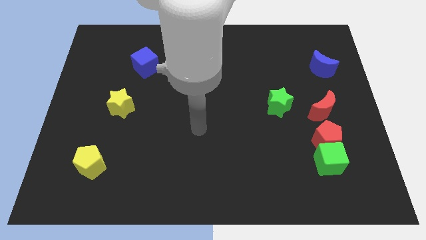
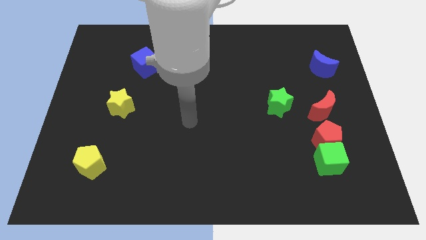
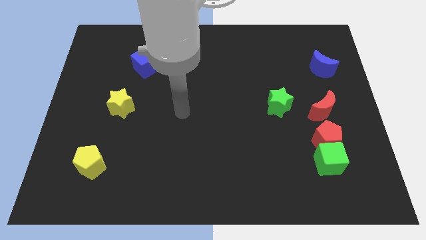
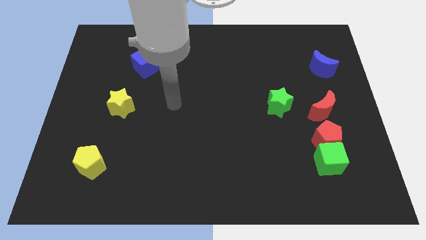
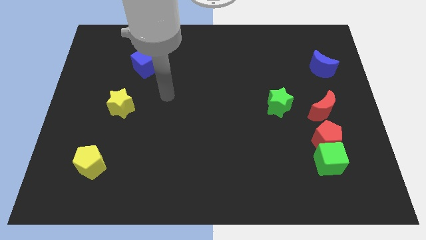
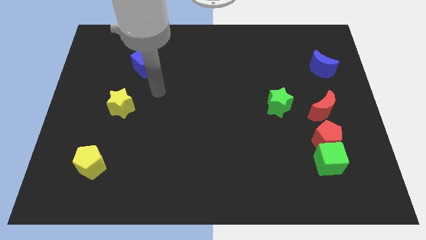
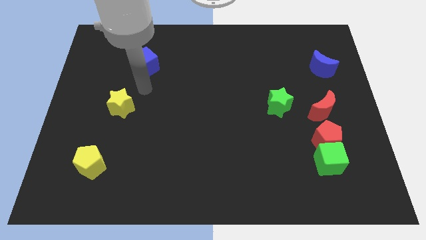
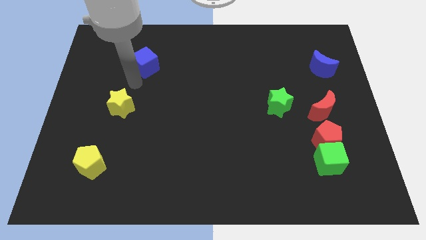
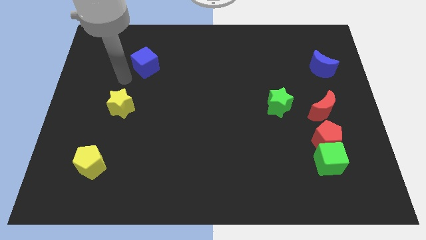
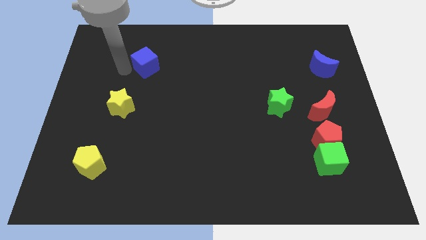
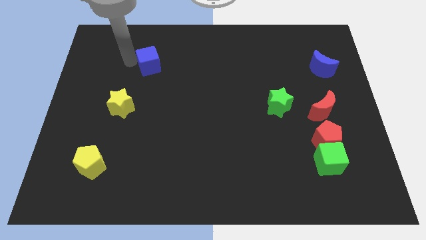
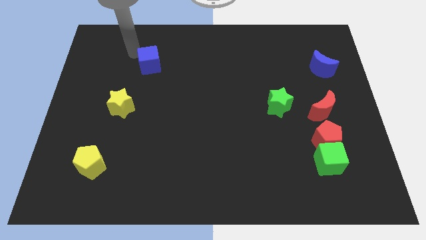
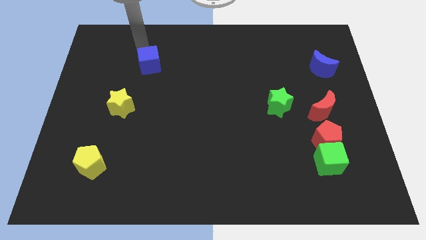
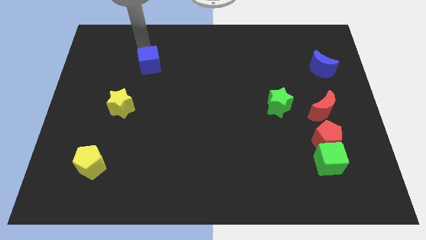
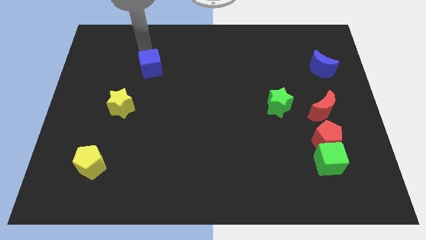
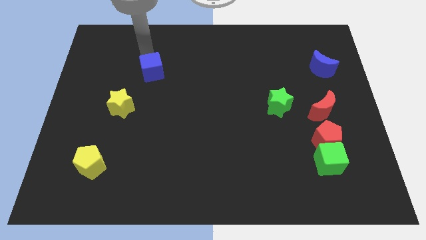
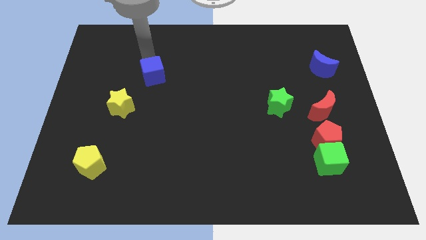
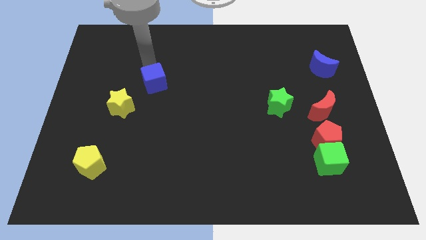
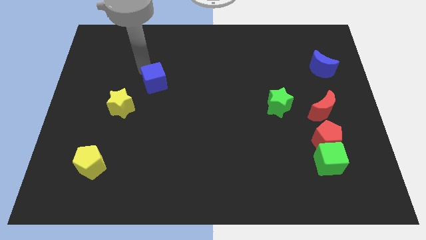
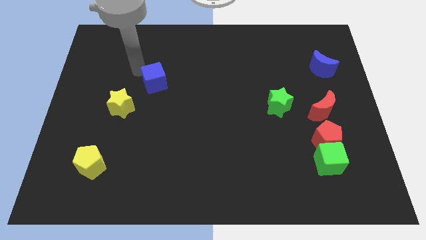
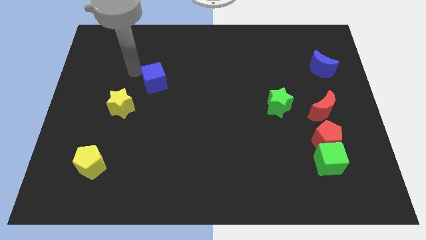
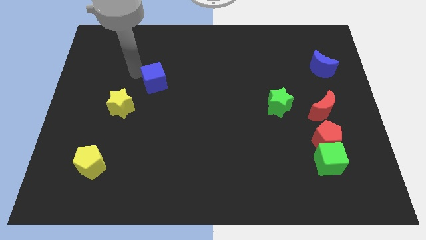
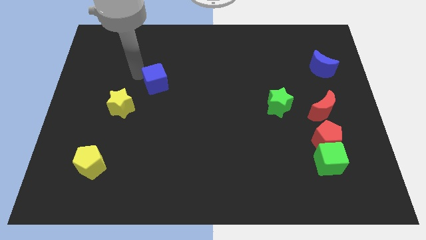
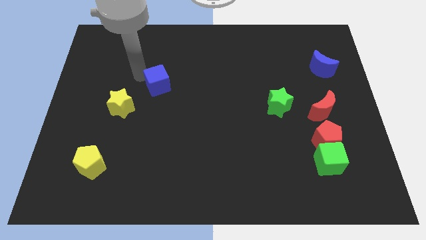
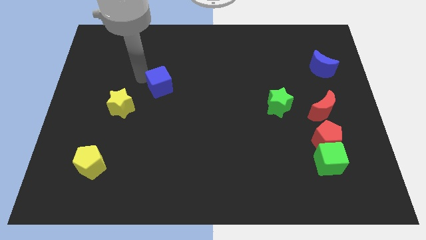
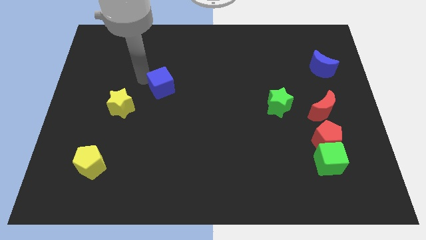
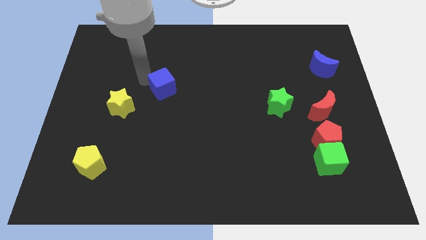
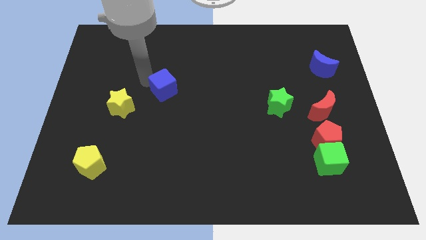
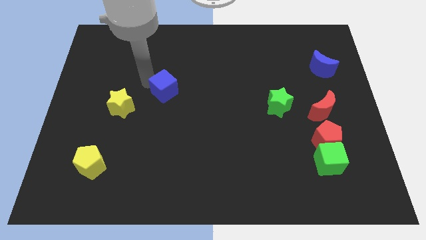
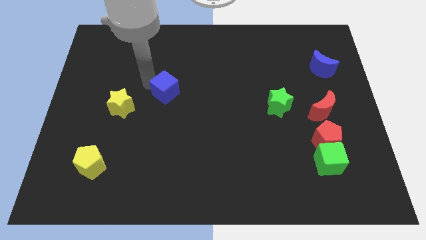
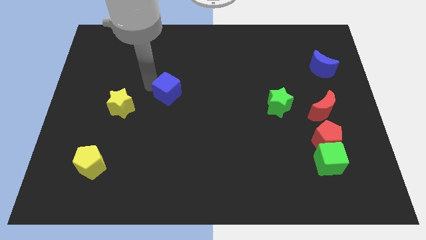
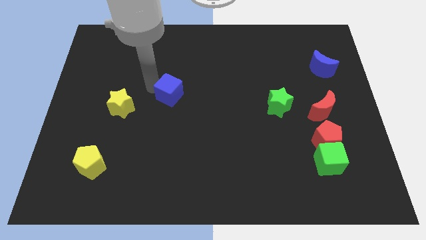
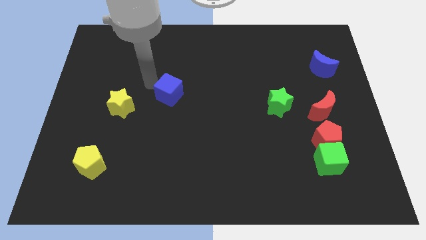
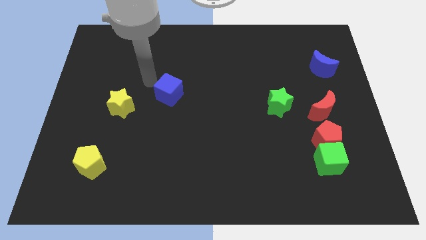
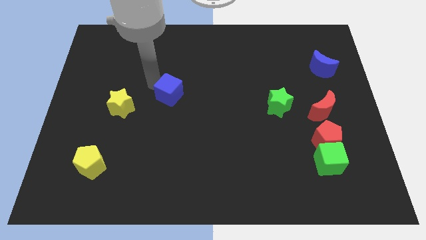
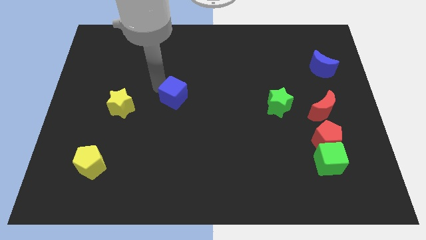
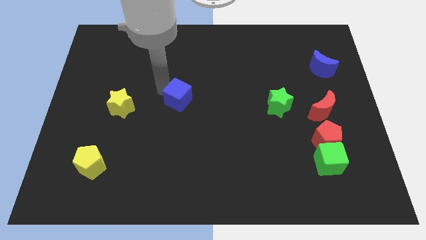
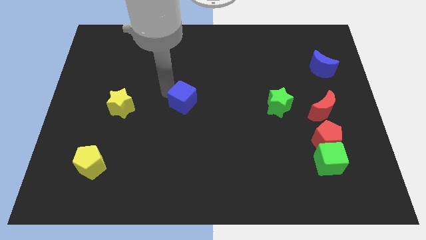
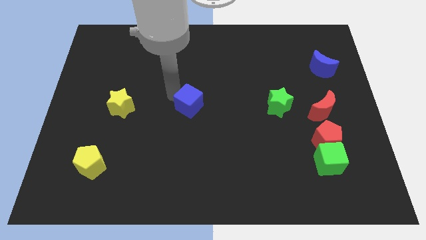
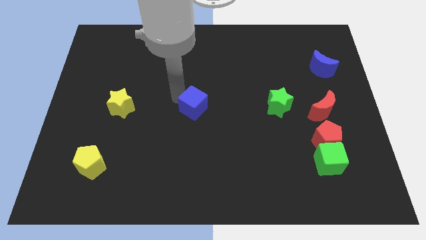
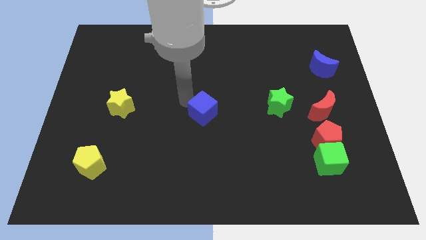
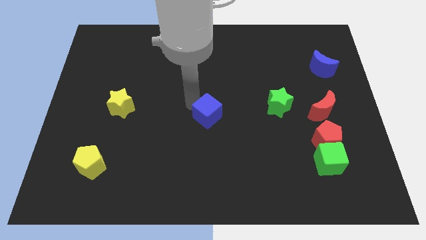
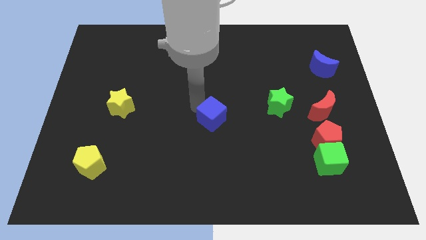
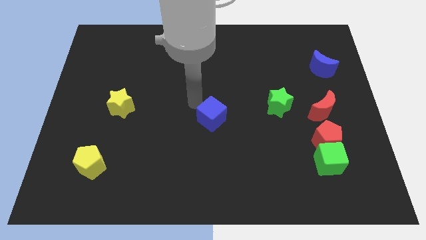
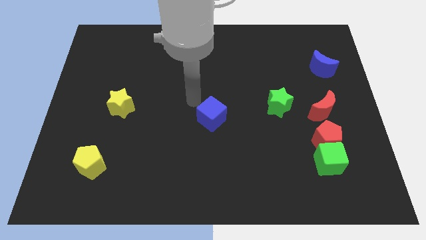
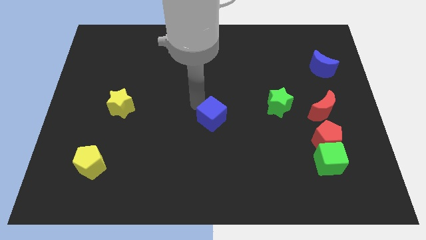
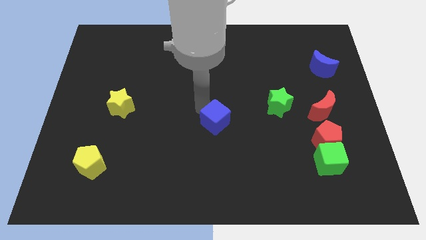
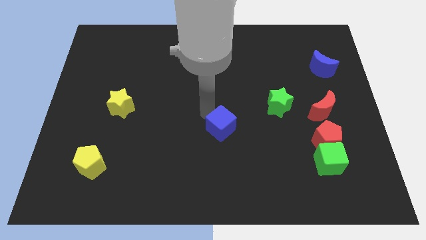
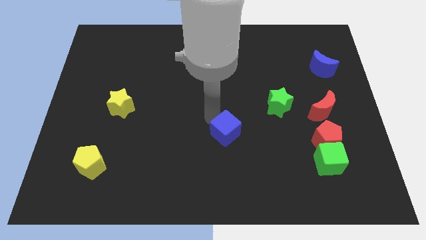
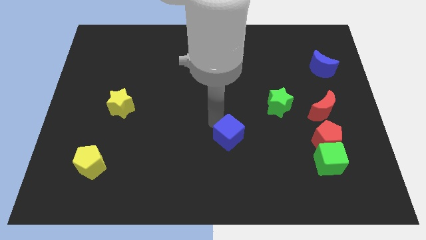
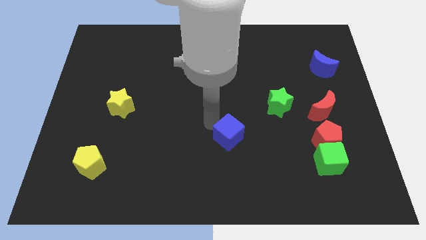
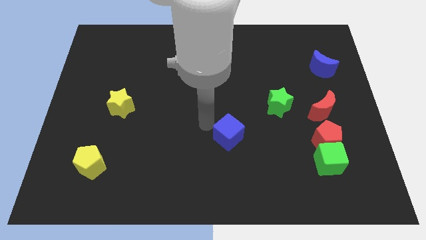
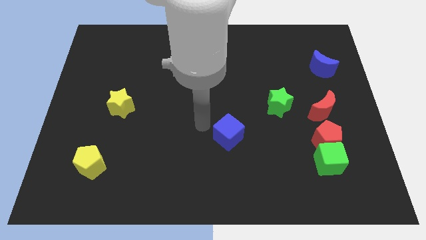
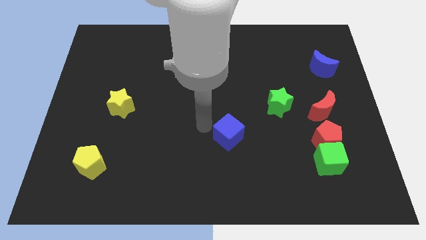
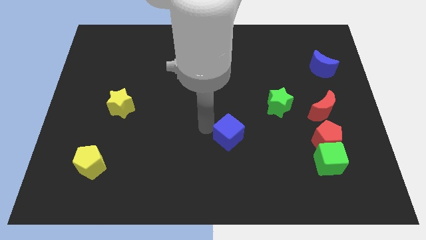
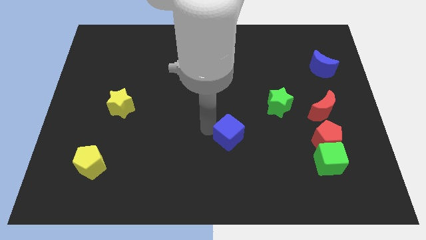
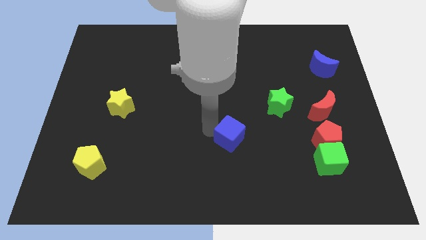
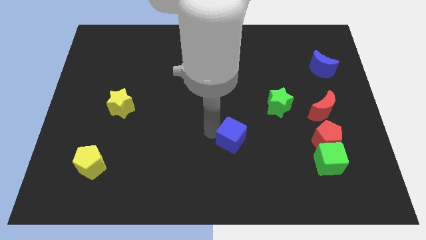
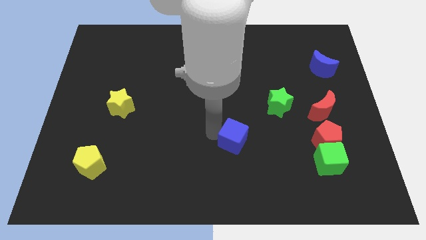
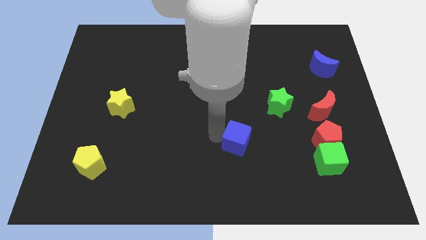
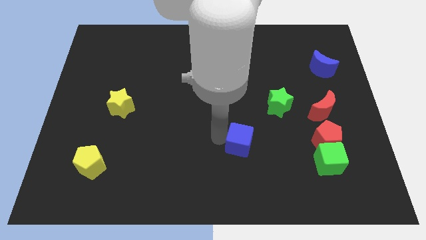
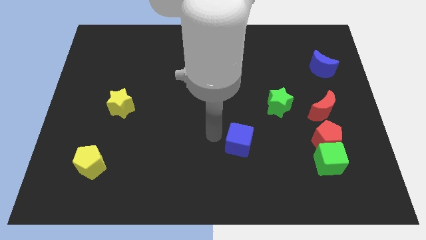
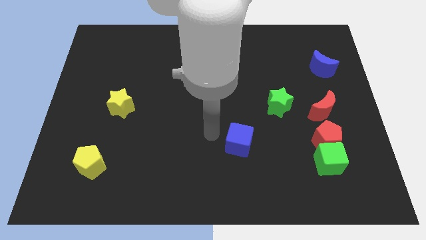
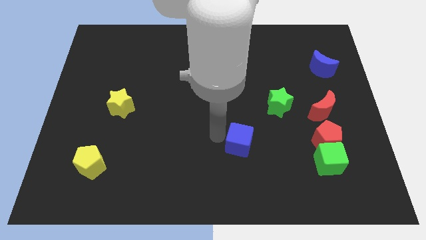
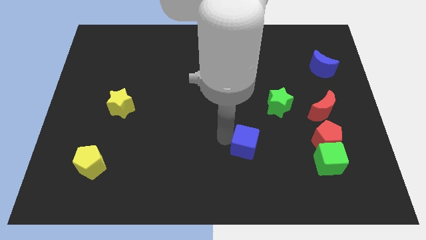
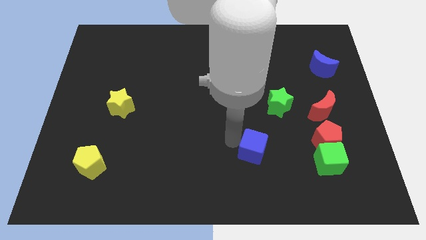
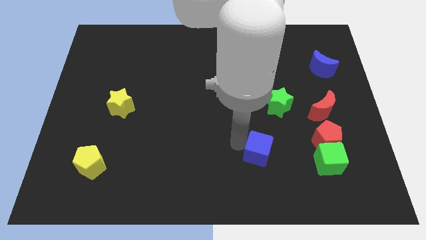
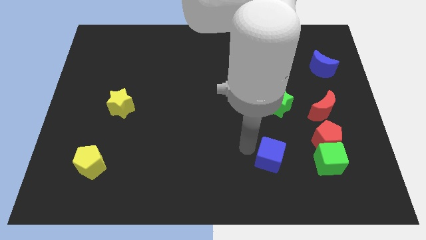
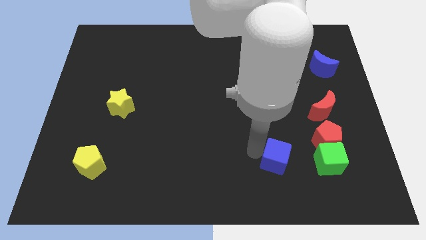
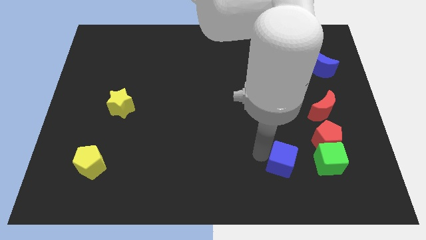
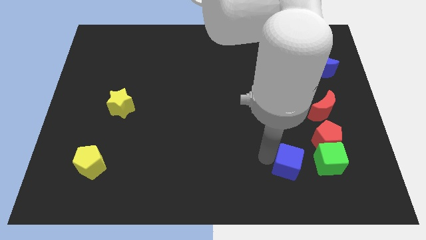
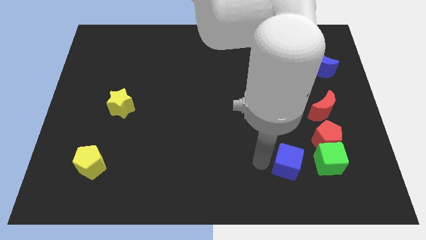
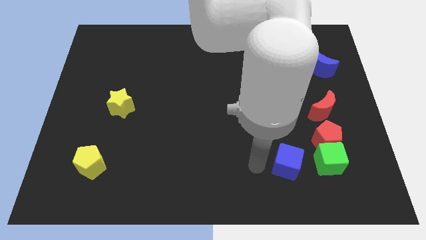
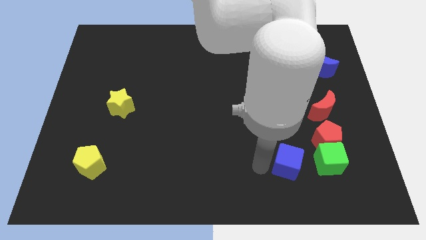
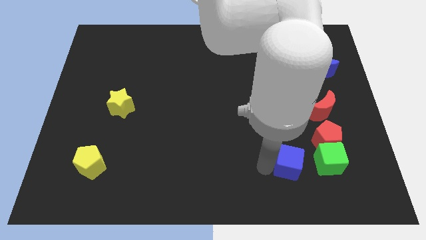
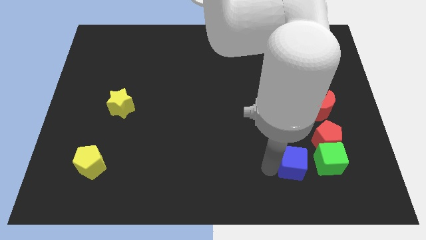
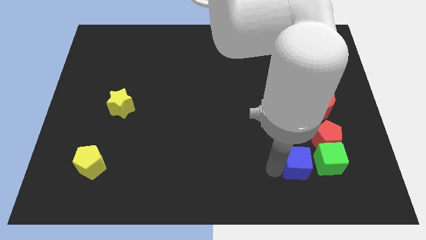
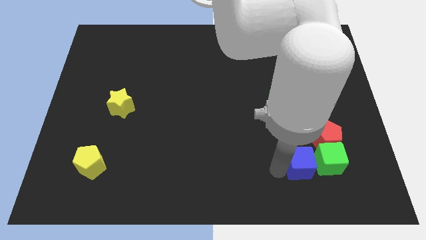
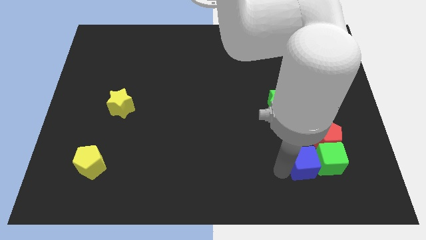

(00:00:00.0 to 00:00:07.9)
put the blue cube to the green cube
